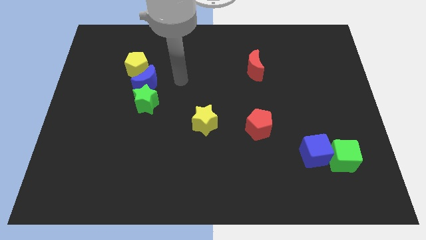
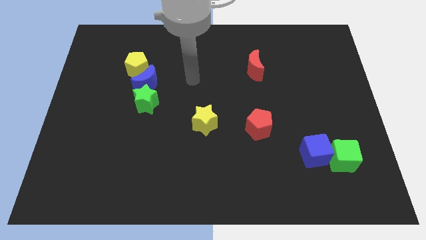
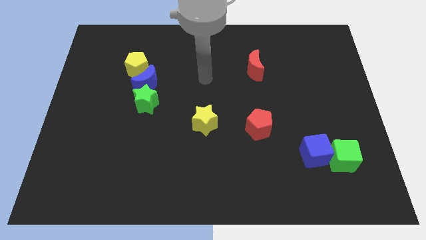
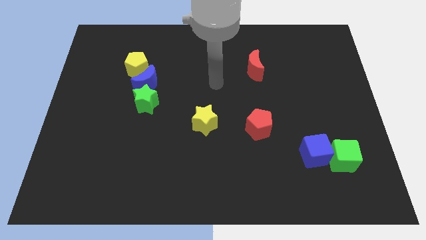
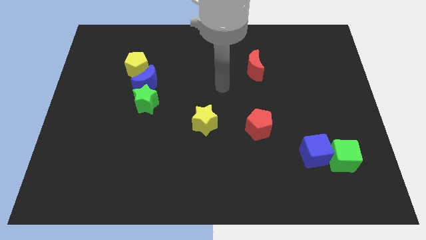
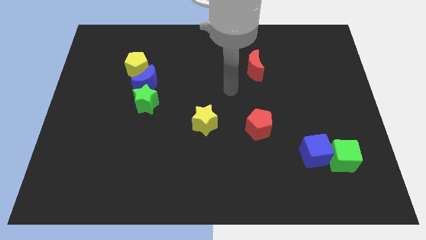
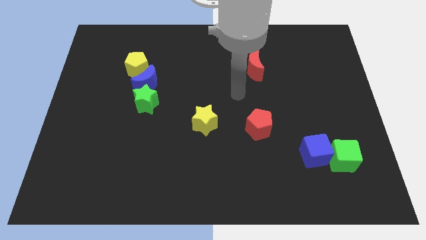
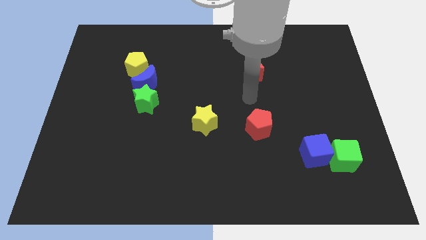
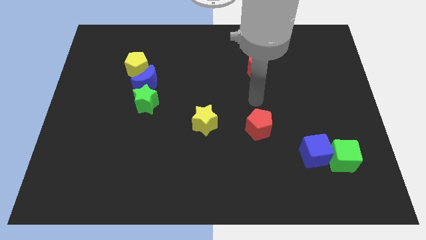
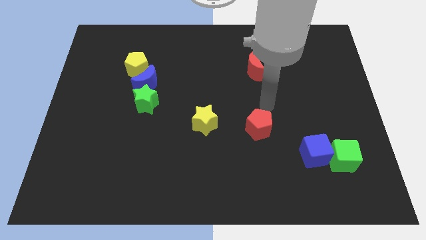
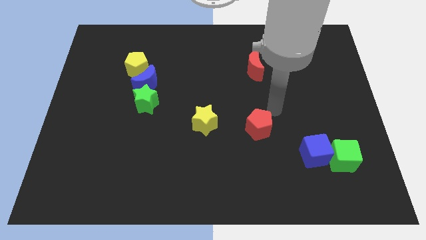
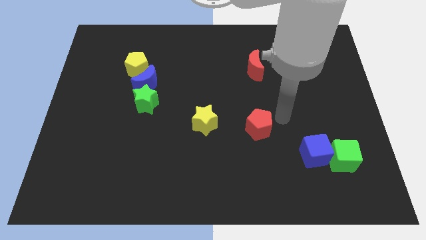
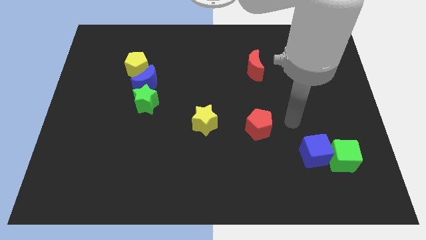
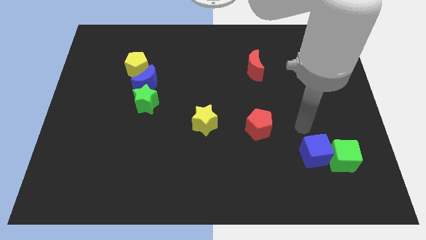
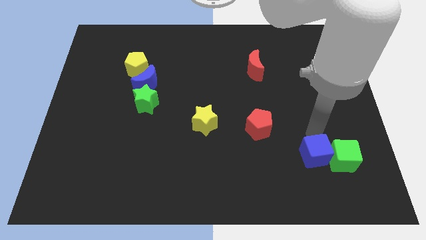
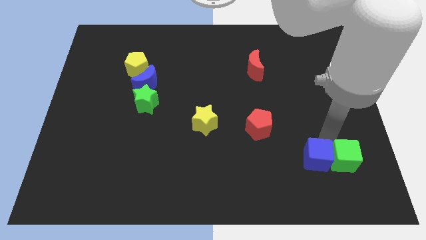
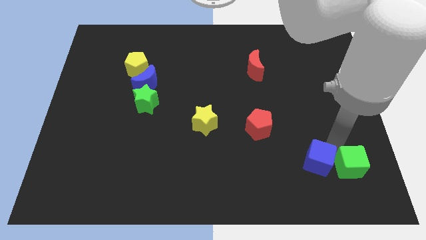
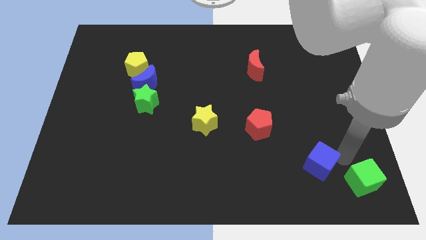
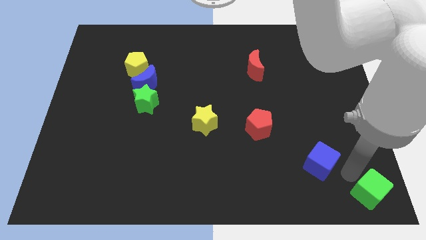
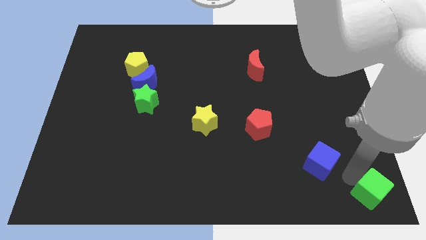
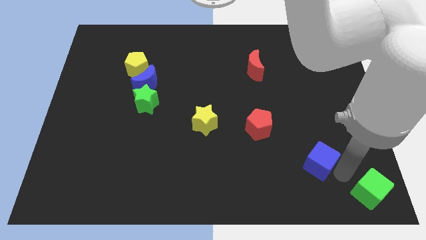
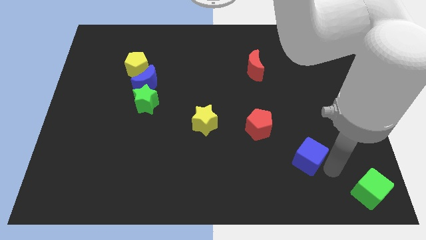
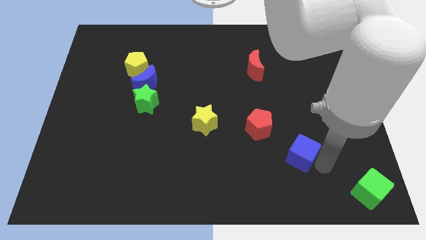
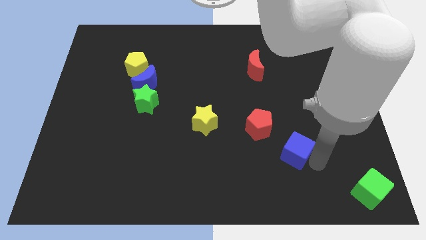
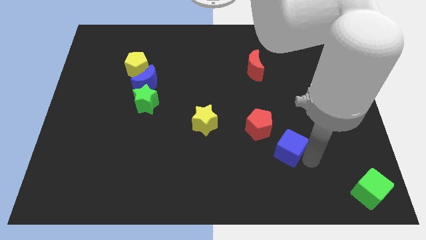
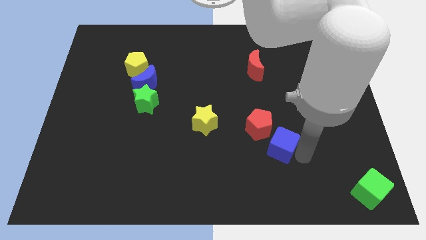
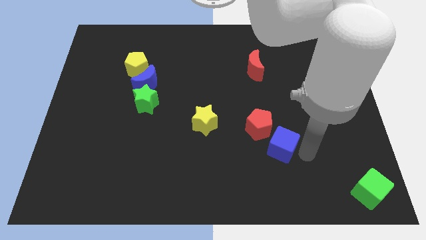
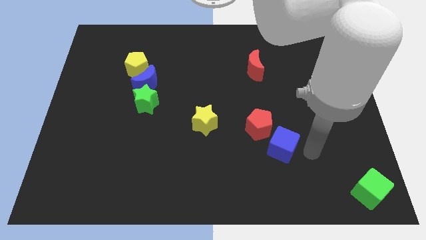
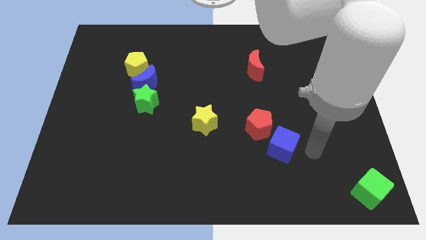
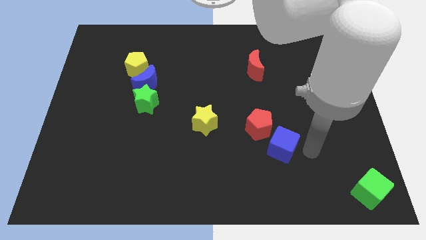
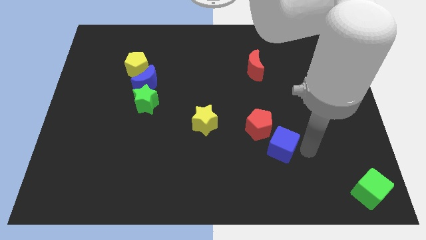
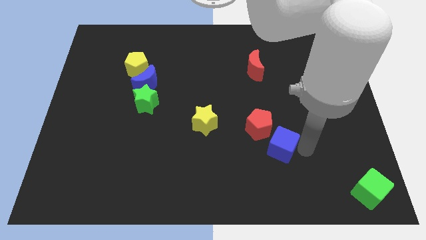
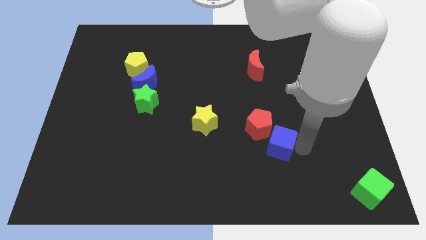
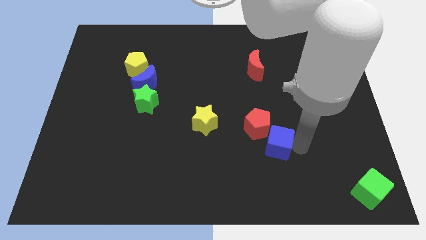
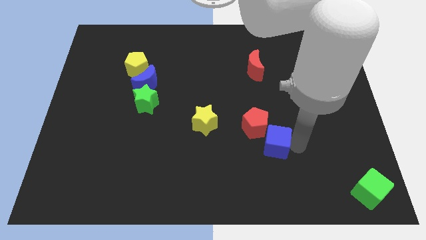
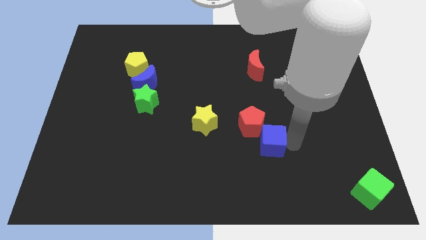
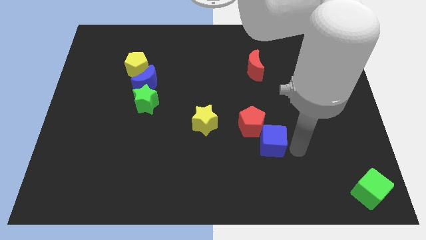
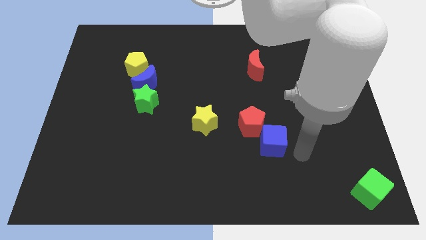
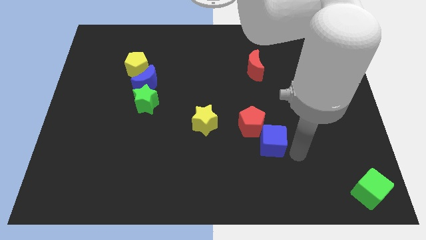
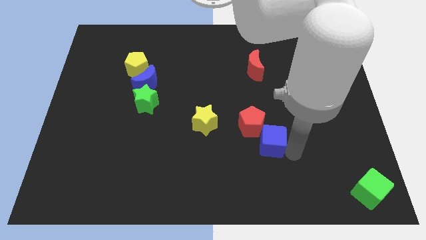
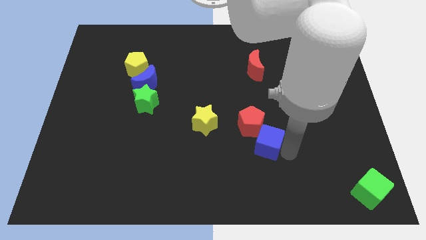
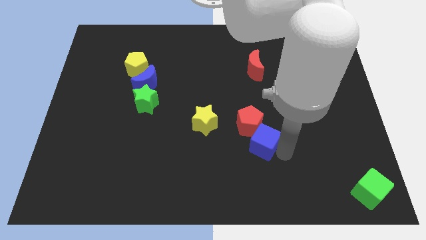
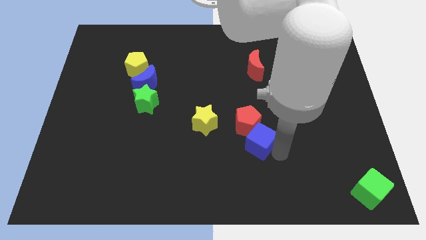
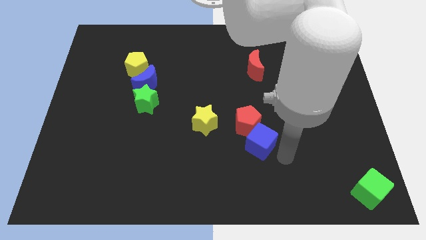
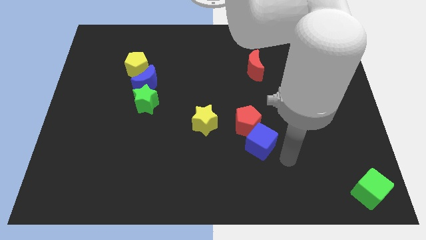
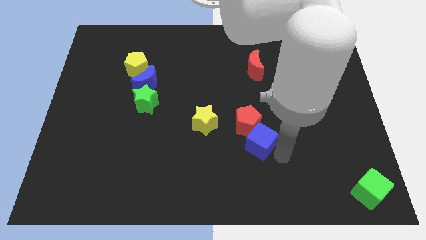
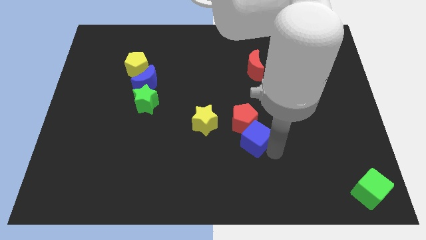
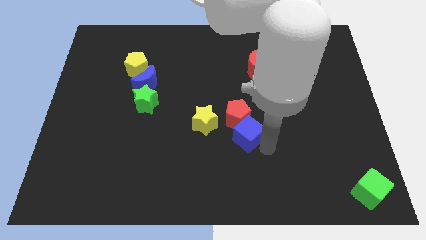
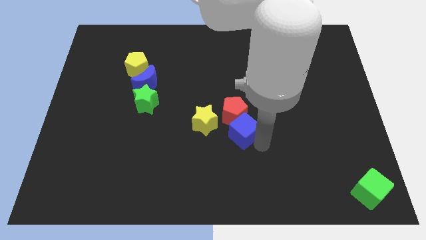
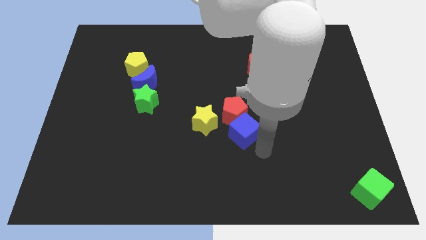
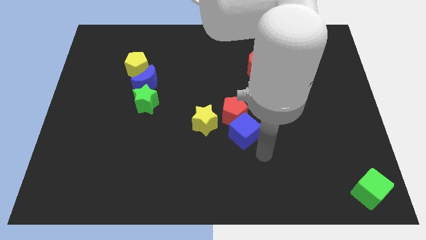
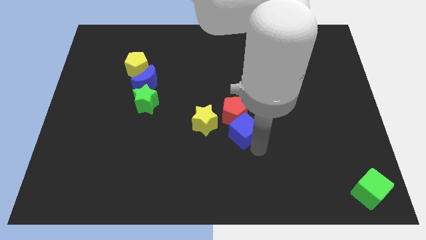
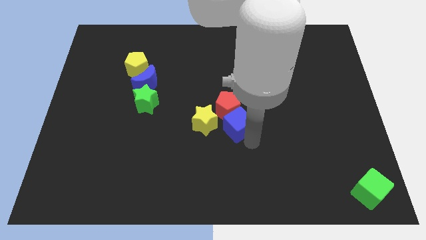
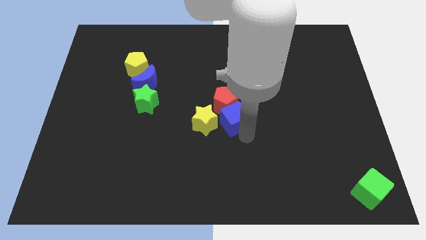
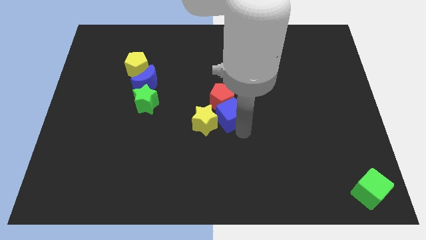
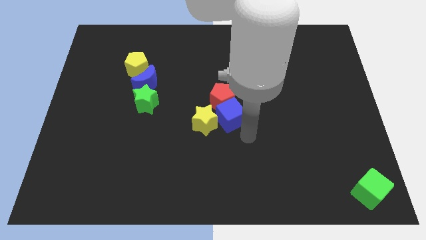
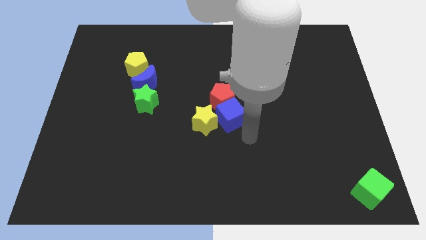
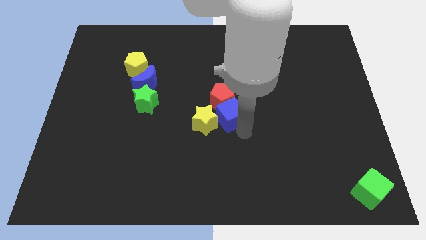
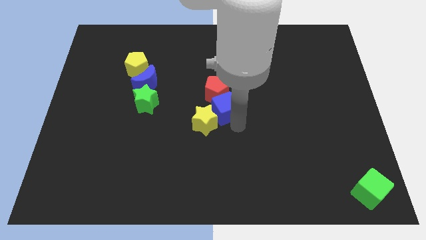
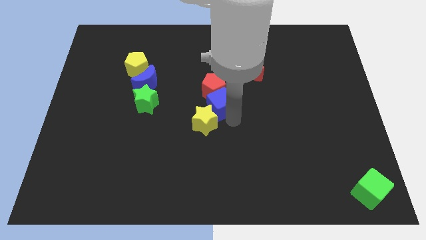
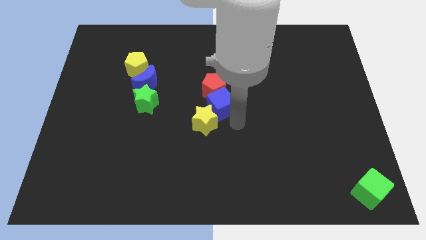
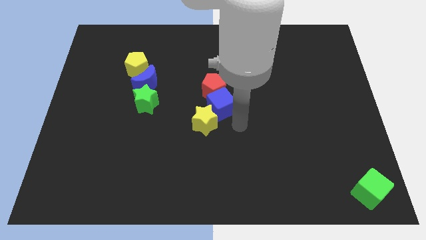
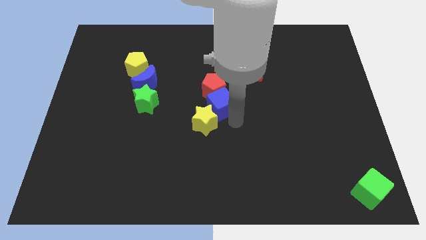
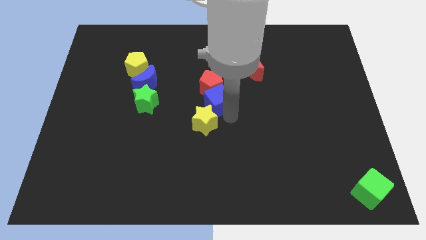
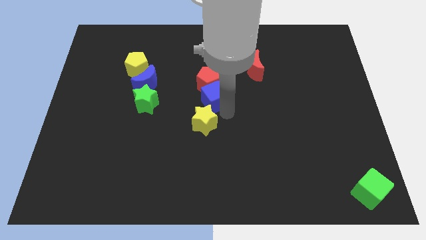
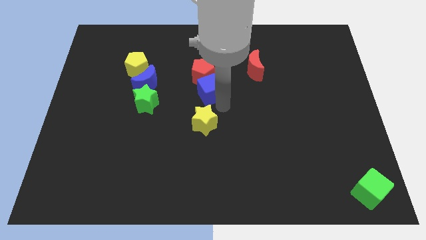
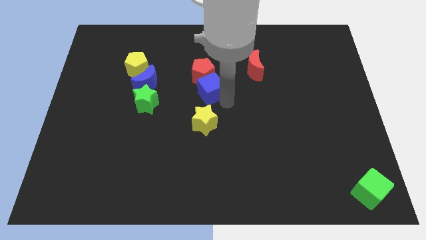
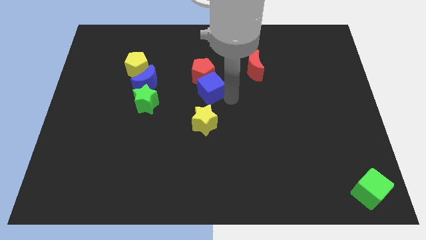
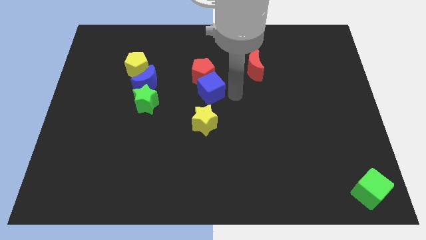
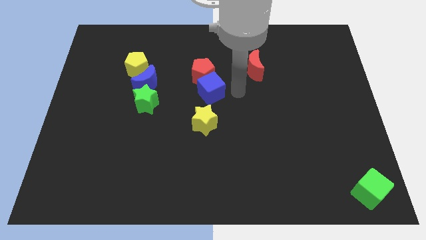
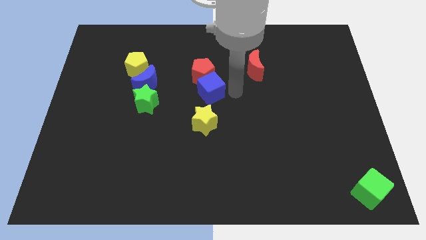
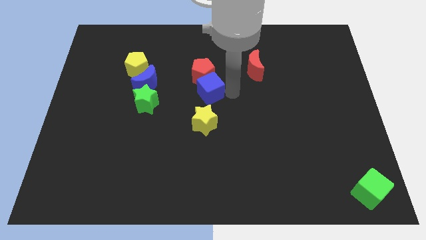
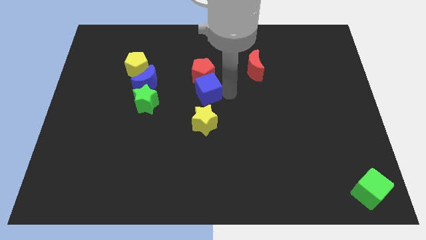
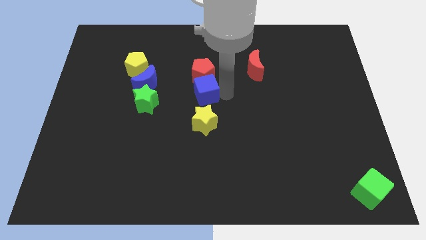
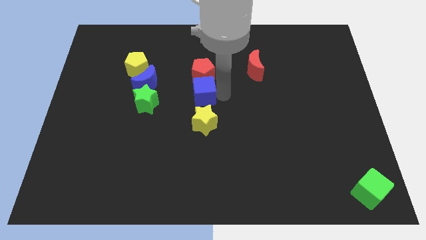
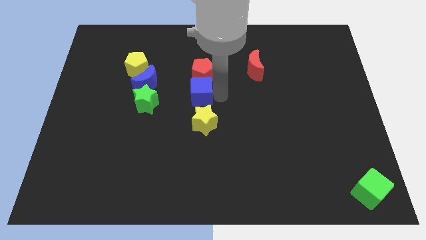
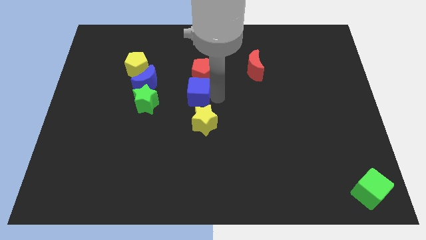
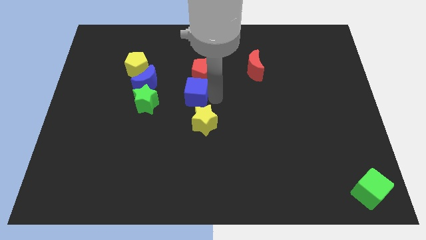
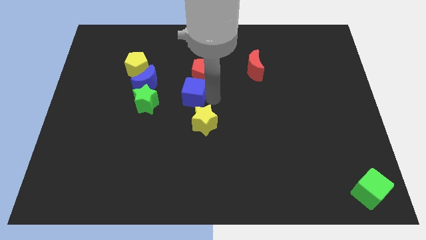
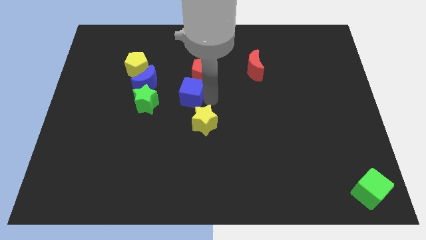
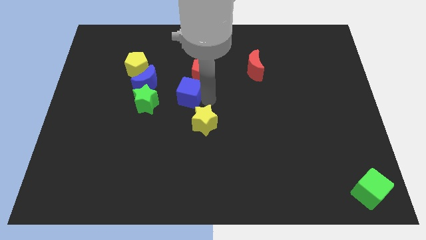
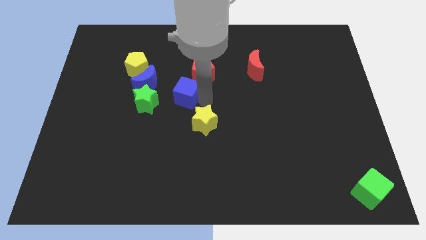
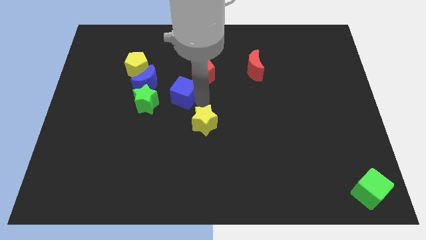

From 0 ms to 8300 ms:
put the blue cube diagonally up and to the right of the green star
